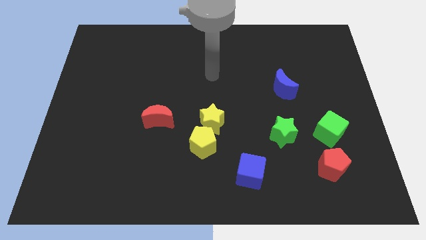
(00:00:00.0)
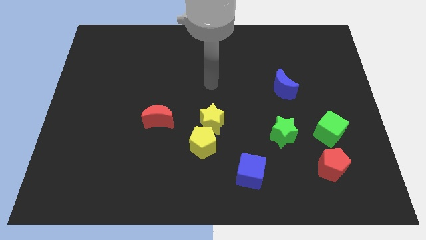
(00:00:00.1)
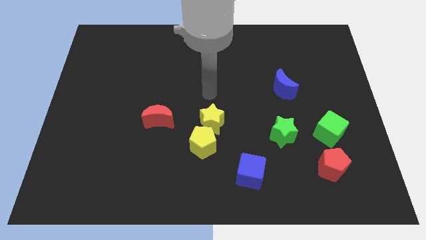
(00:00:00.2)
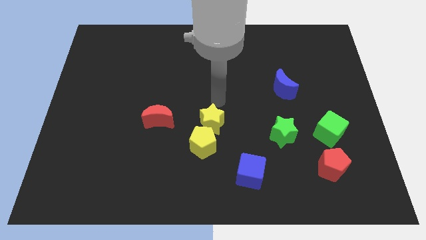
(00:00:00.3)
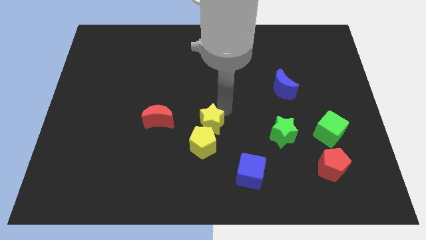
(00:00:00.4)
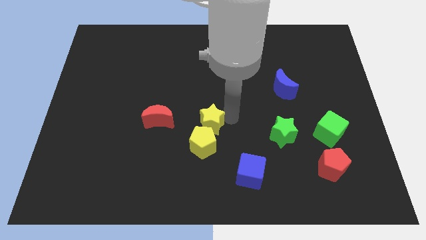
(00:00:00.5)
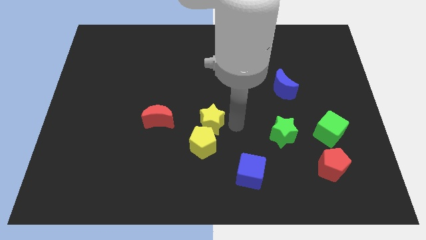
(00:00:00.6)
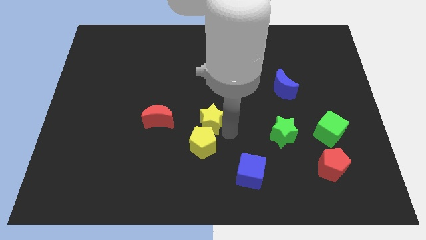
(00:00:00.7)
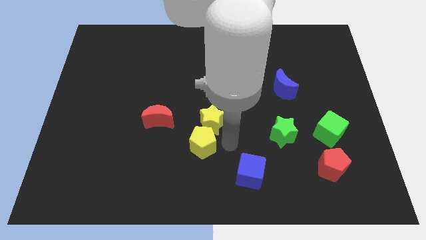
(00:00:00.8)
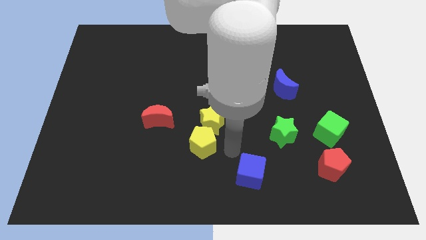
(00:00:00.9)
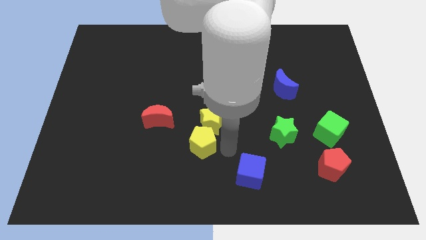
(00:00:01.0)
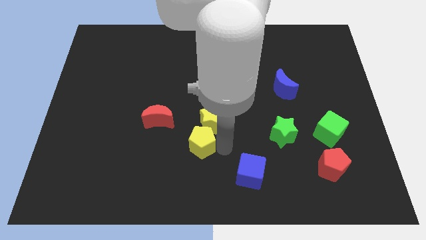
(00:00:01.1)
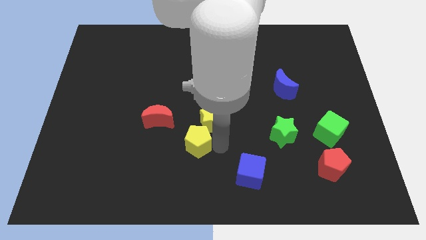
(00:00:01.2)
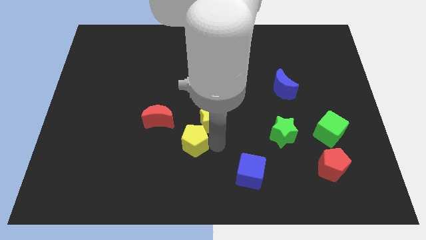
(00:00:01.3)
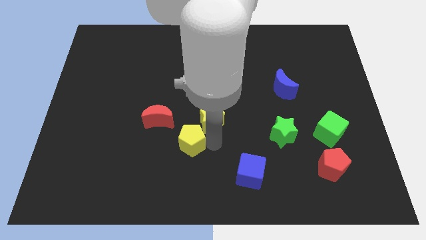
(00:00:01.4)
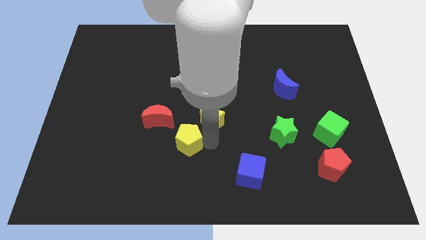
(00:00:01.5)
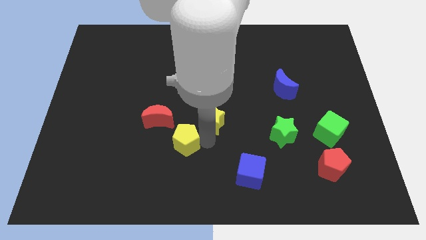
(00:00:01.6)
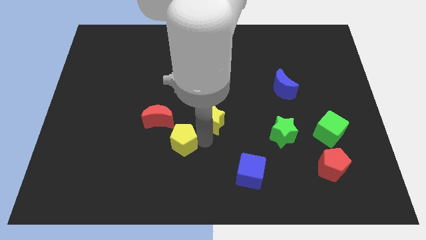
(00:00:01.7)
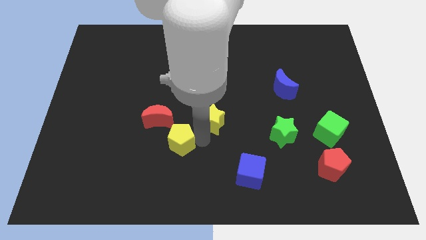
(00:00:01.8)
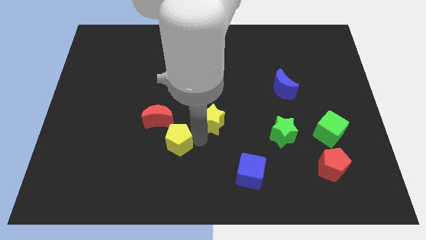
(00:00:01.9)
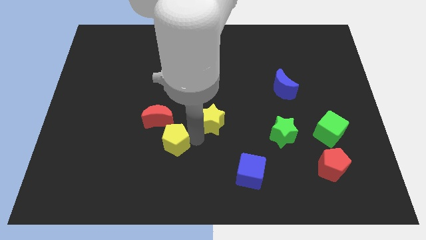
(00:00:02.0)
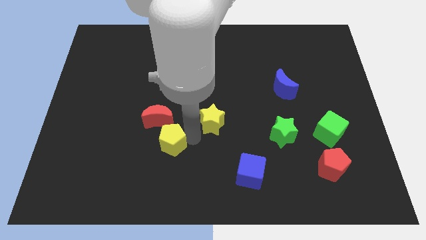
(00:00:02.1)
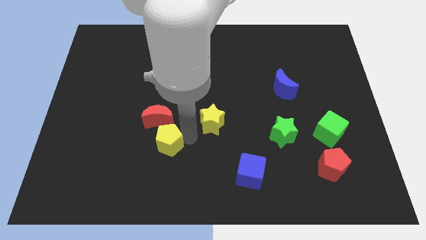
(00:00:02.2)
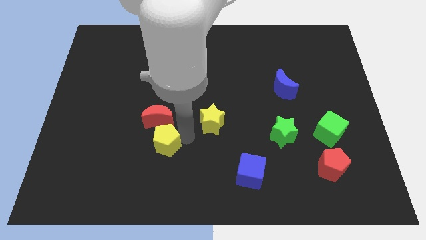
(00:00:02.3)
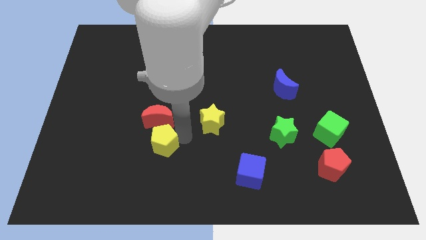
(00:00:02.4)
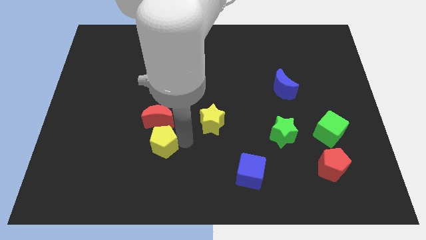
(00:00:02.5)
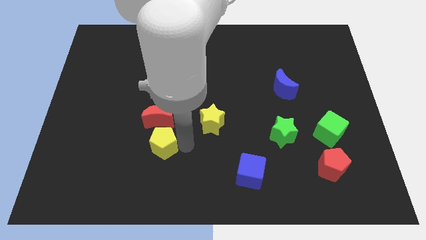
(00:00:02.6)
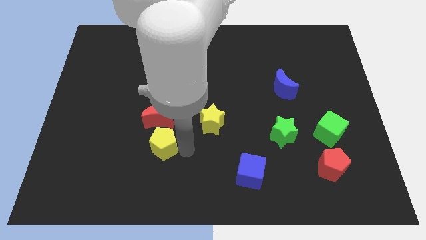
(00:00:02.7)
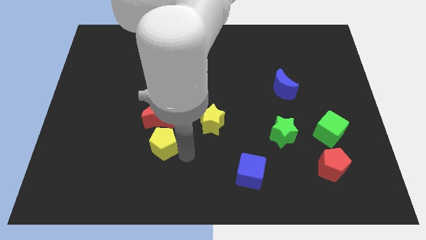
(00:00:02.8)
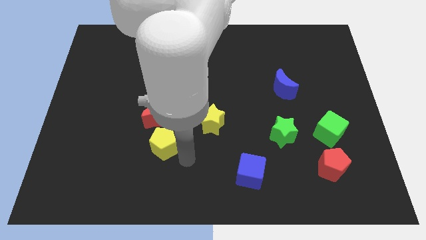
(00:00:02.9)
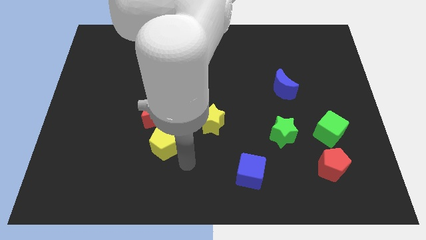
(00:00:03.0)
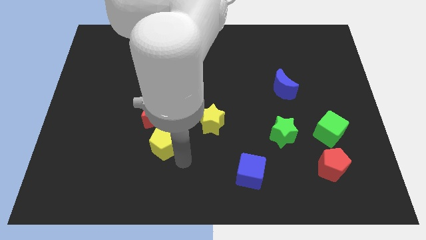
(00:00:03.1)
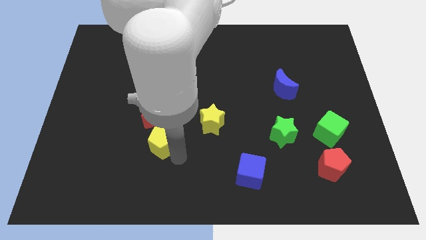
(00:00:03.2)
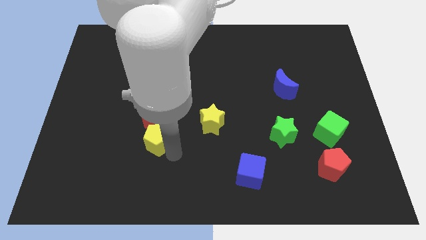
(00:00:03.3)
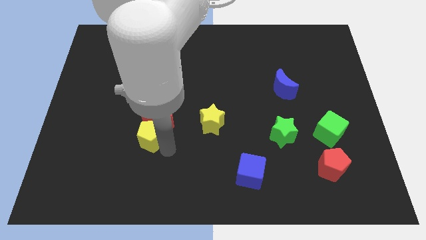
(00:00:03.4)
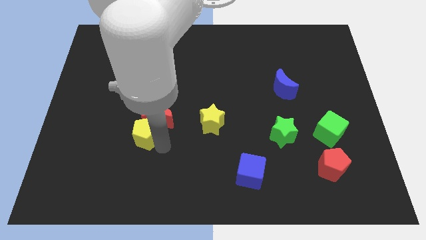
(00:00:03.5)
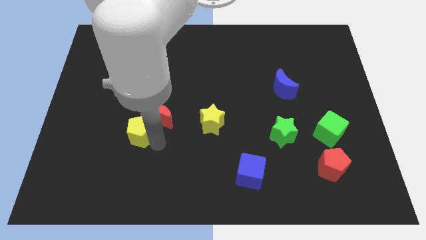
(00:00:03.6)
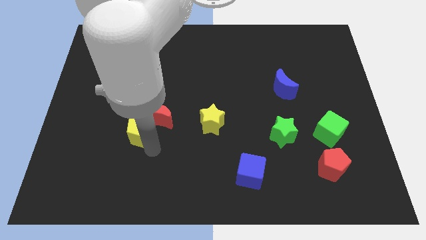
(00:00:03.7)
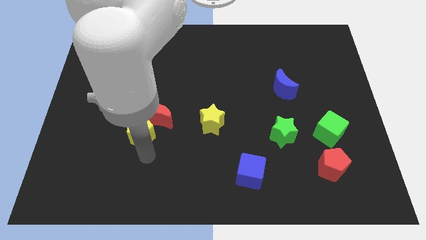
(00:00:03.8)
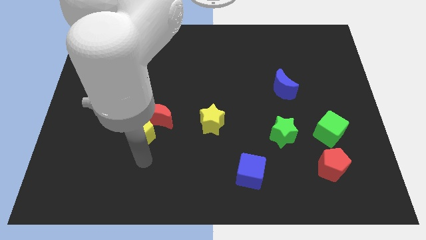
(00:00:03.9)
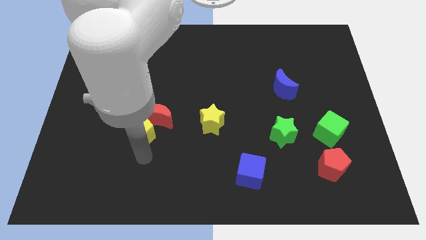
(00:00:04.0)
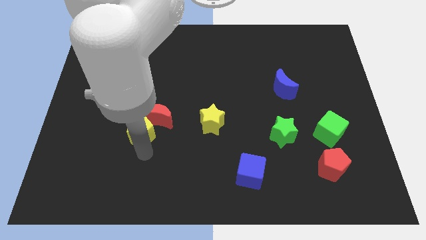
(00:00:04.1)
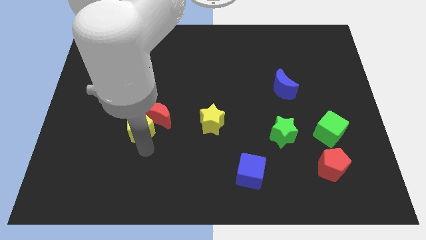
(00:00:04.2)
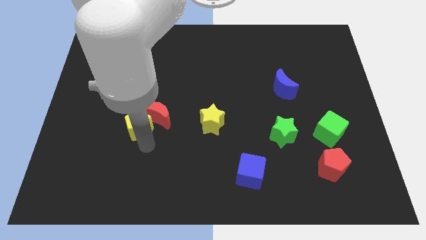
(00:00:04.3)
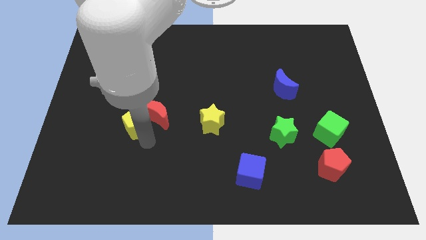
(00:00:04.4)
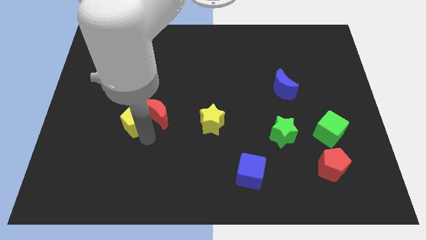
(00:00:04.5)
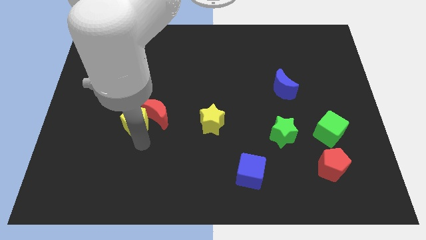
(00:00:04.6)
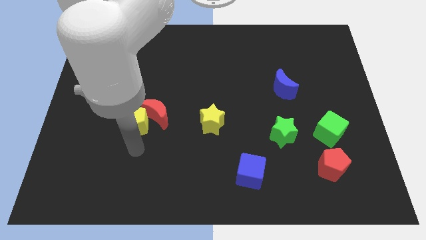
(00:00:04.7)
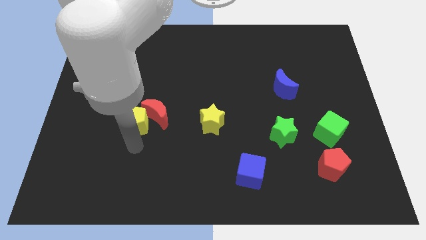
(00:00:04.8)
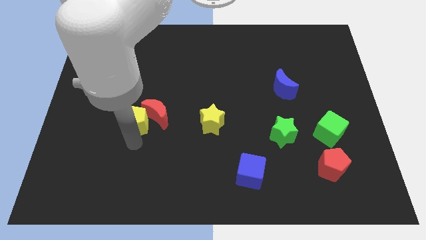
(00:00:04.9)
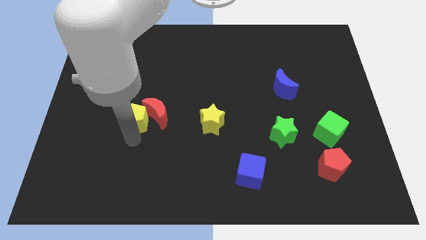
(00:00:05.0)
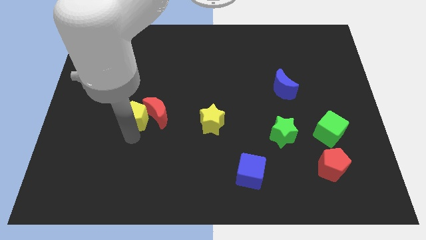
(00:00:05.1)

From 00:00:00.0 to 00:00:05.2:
push the yellow pentagon to the top left side of the red moon

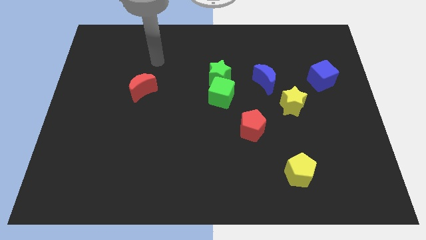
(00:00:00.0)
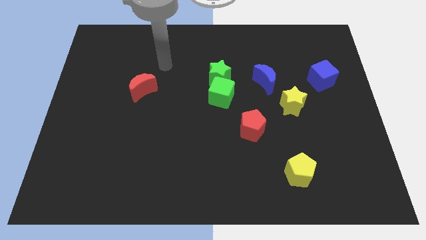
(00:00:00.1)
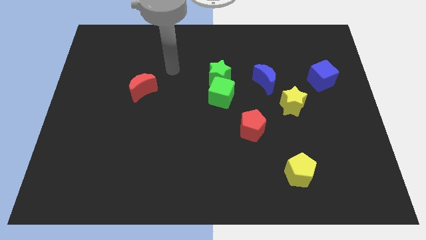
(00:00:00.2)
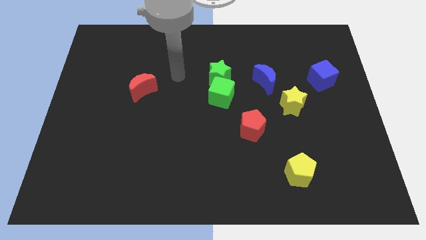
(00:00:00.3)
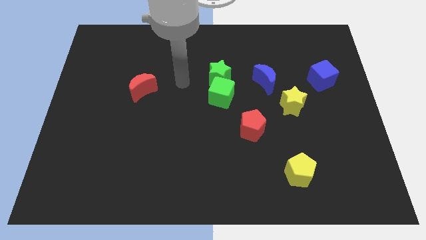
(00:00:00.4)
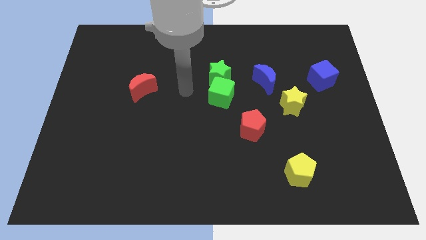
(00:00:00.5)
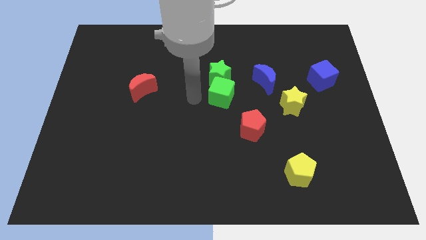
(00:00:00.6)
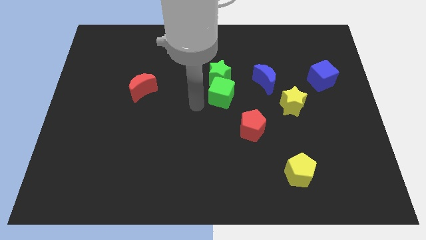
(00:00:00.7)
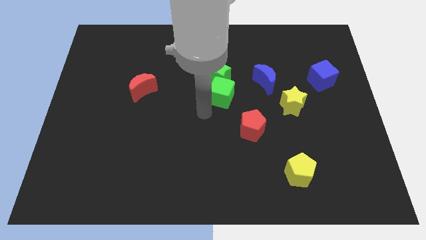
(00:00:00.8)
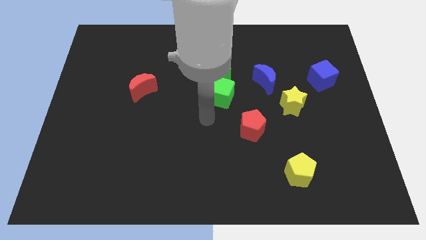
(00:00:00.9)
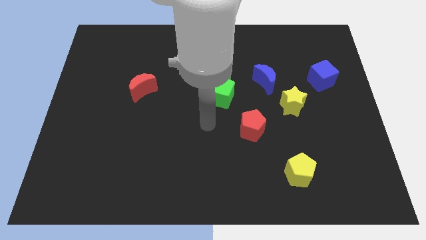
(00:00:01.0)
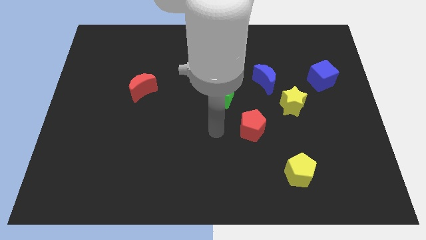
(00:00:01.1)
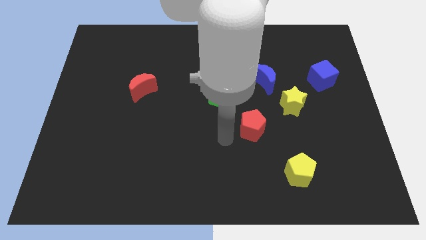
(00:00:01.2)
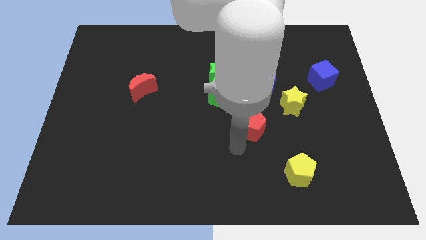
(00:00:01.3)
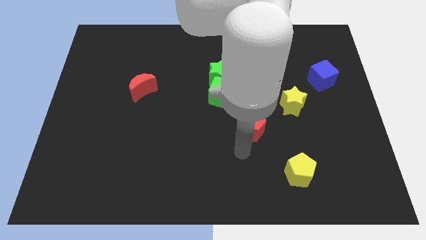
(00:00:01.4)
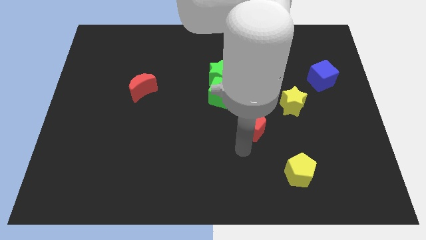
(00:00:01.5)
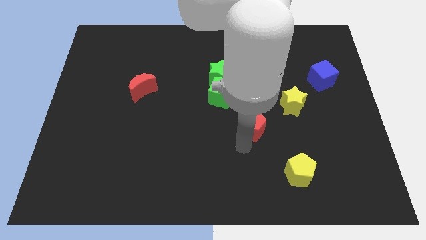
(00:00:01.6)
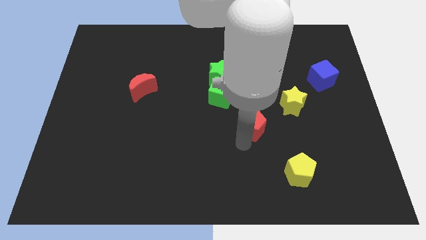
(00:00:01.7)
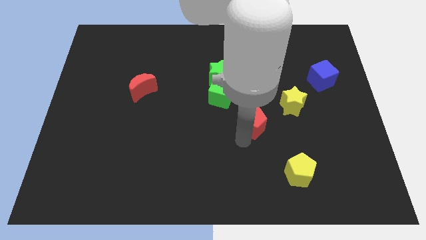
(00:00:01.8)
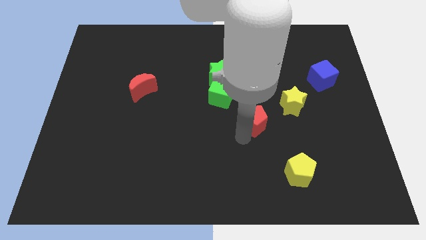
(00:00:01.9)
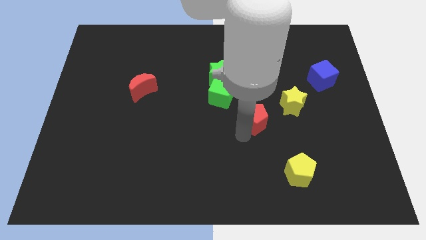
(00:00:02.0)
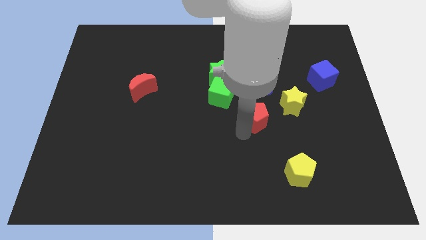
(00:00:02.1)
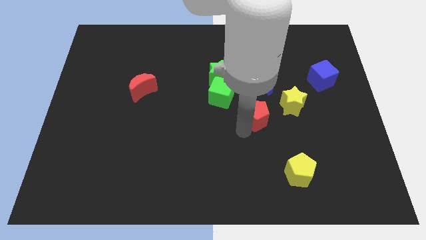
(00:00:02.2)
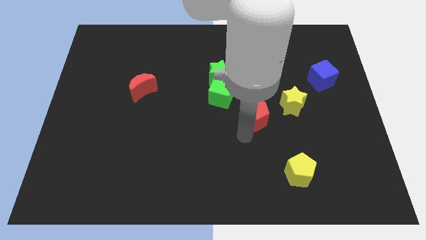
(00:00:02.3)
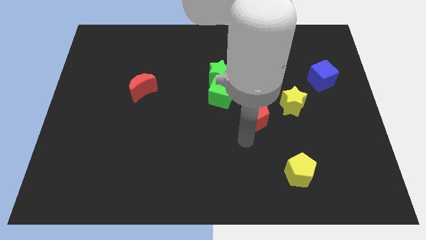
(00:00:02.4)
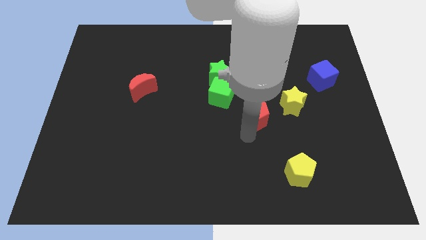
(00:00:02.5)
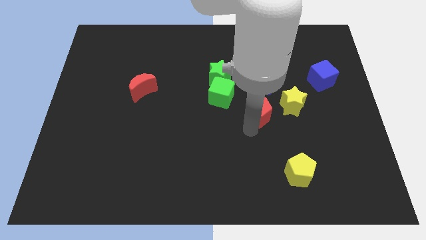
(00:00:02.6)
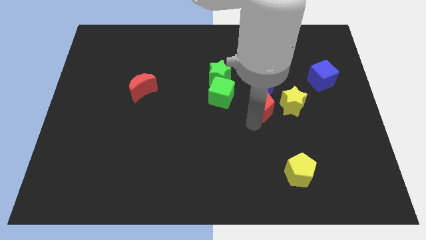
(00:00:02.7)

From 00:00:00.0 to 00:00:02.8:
slide the red pentagon to the right side of the green cube
